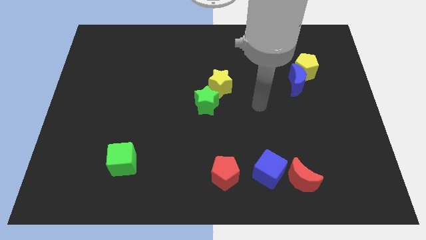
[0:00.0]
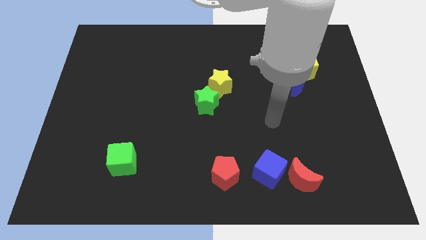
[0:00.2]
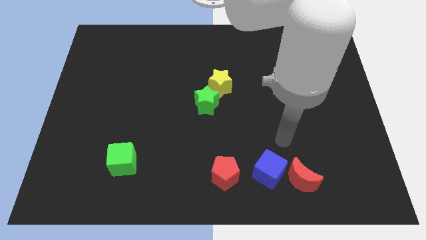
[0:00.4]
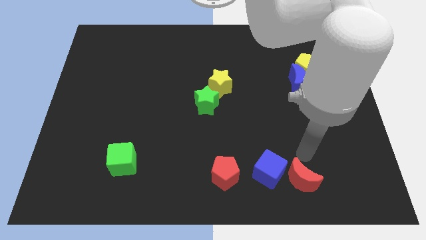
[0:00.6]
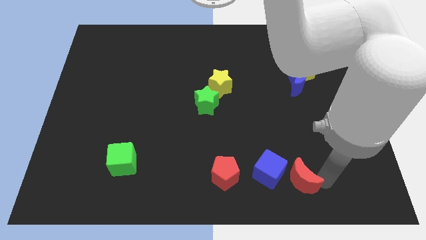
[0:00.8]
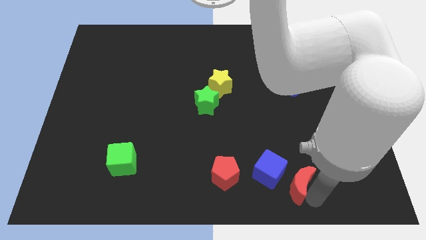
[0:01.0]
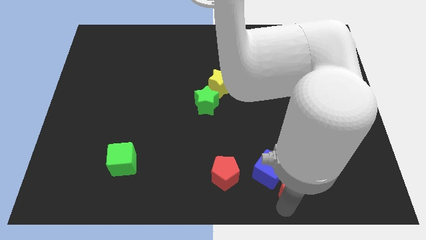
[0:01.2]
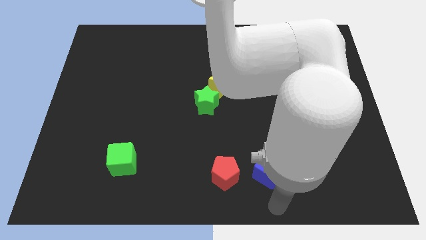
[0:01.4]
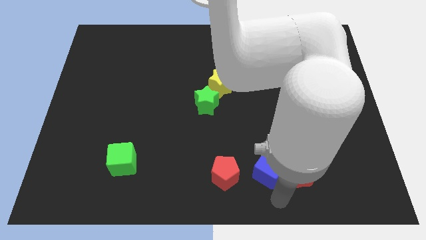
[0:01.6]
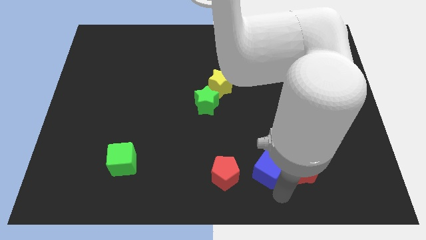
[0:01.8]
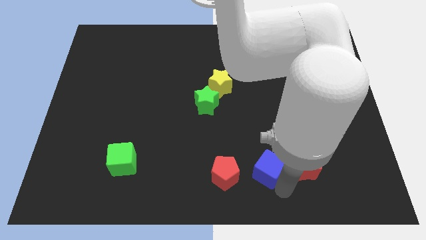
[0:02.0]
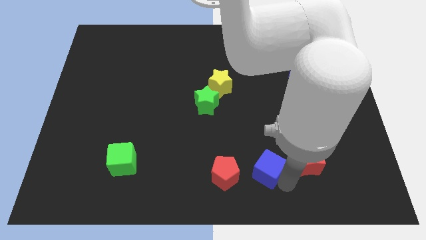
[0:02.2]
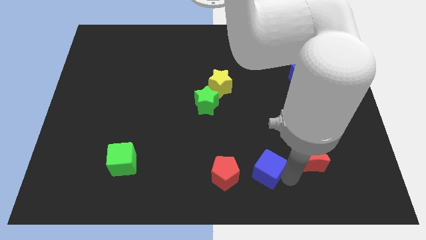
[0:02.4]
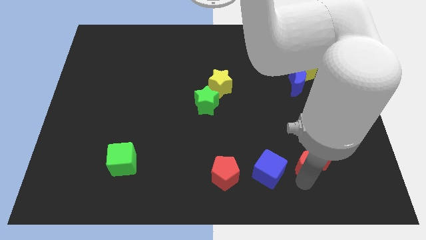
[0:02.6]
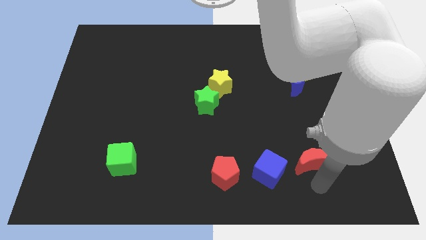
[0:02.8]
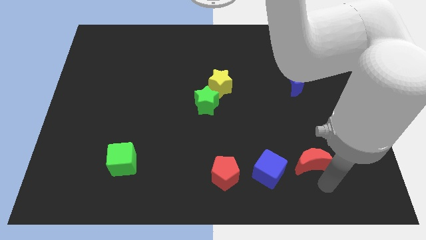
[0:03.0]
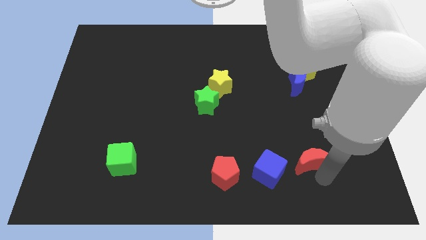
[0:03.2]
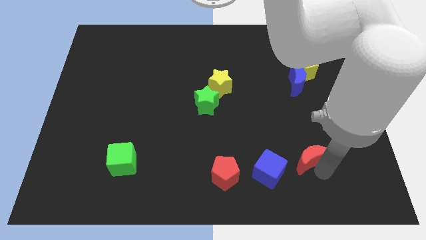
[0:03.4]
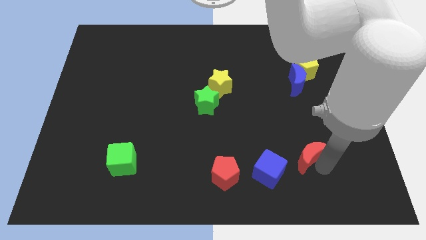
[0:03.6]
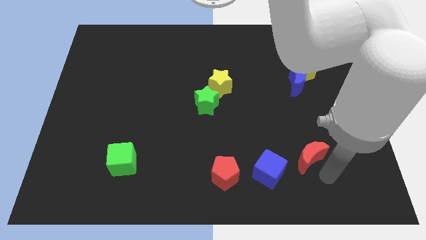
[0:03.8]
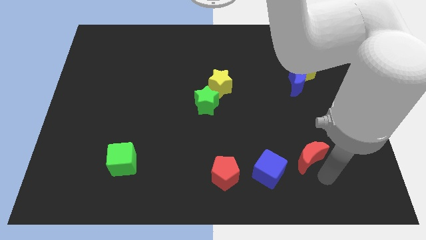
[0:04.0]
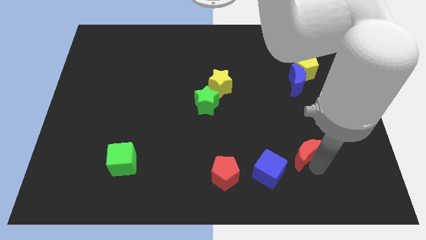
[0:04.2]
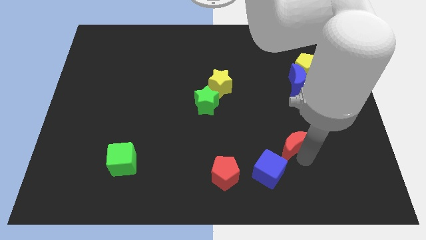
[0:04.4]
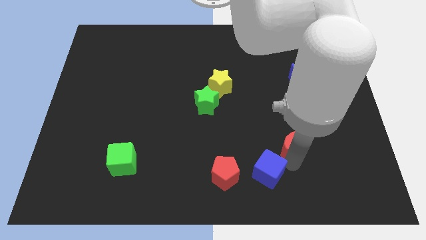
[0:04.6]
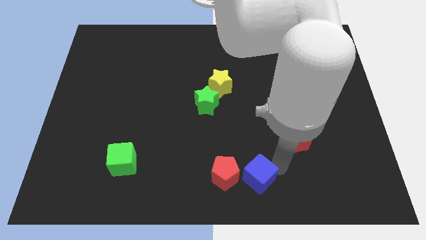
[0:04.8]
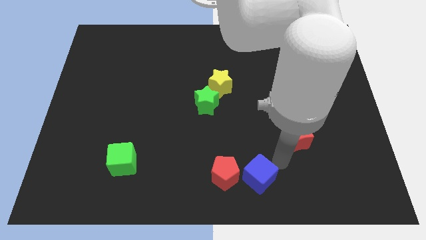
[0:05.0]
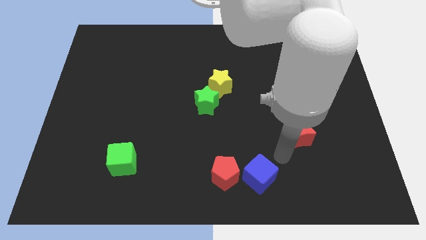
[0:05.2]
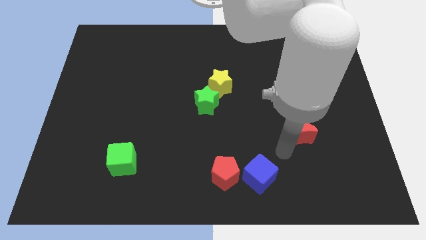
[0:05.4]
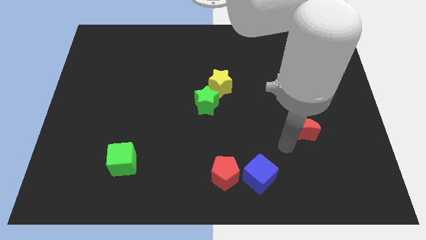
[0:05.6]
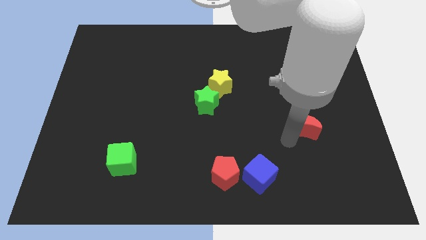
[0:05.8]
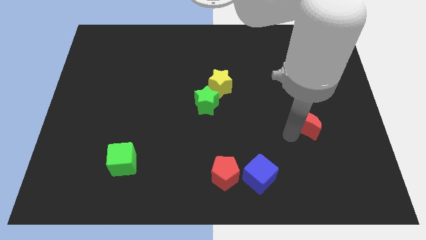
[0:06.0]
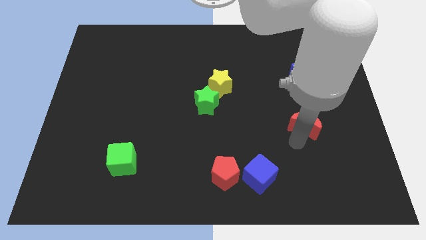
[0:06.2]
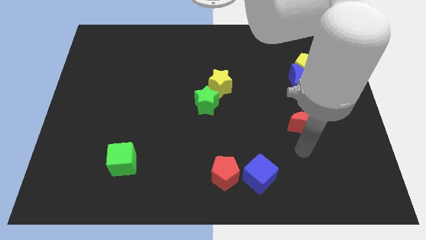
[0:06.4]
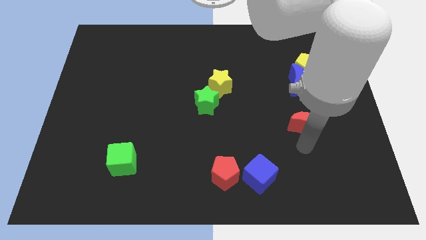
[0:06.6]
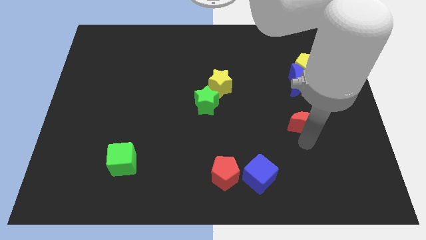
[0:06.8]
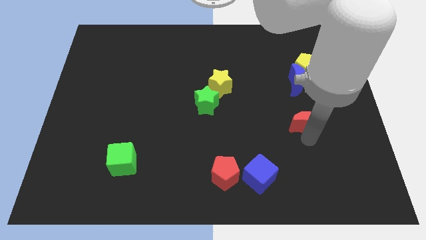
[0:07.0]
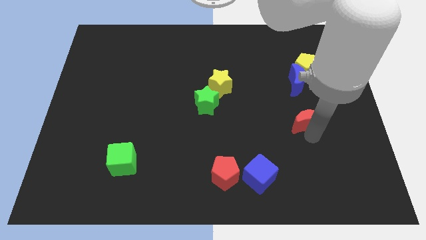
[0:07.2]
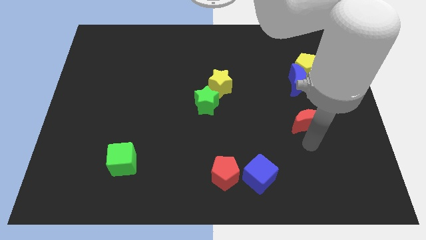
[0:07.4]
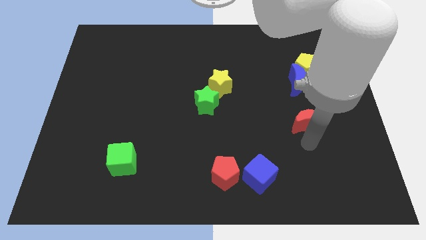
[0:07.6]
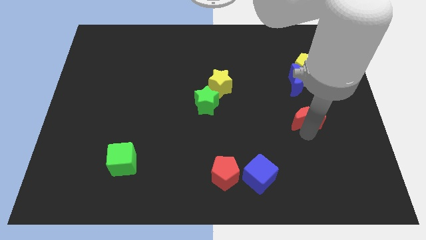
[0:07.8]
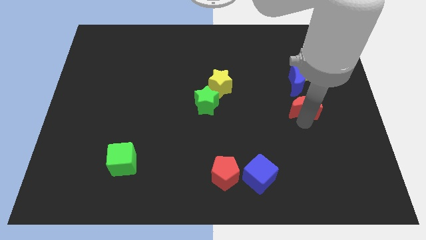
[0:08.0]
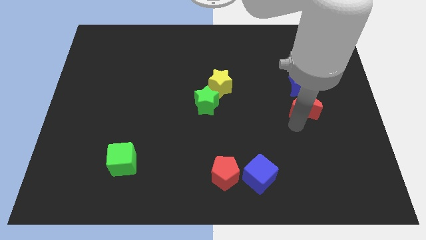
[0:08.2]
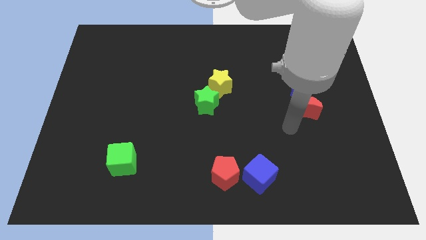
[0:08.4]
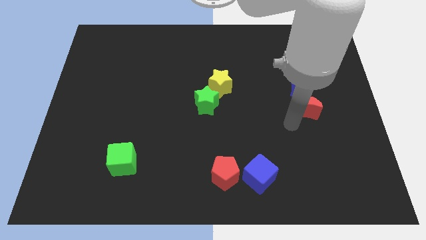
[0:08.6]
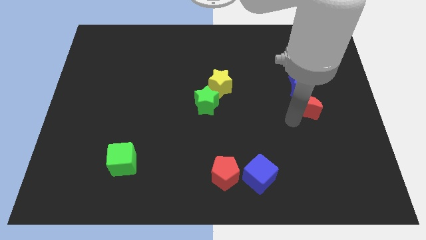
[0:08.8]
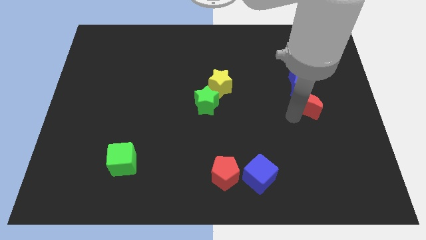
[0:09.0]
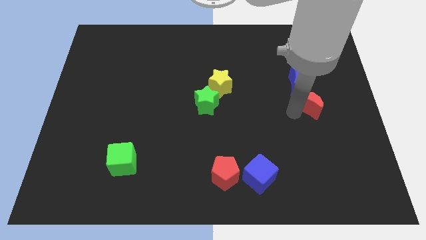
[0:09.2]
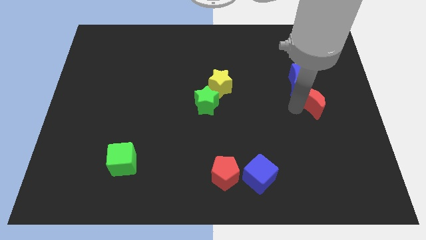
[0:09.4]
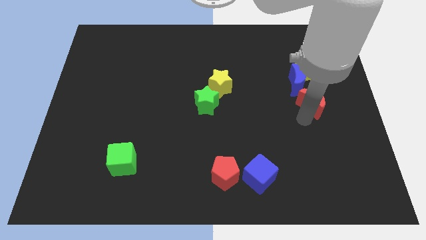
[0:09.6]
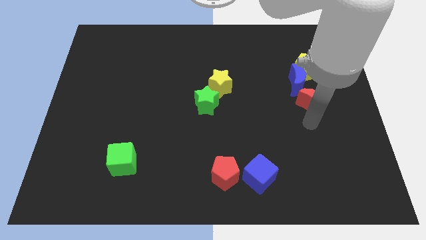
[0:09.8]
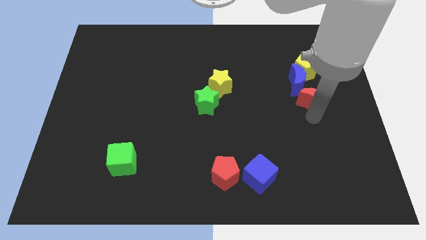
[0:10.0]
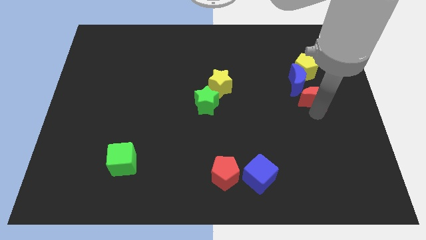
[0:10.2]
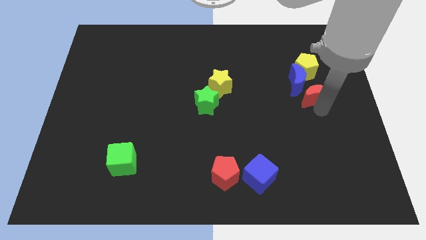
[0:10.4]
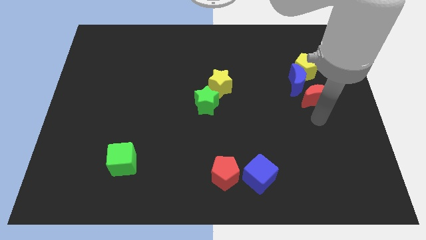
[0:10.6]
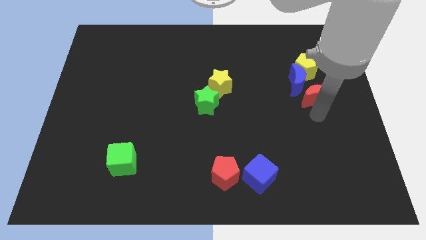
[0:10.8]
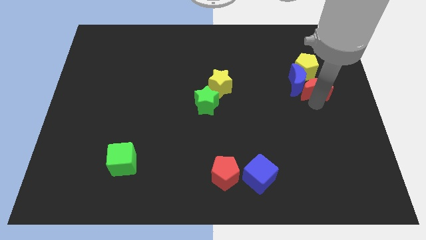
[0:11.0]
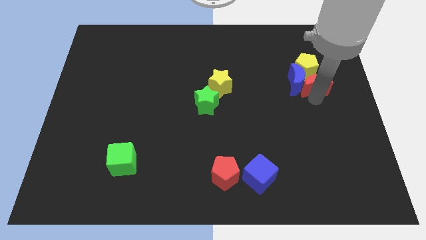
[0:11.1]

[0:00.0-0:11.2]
put the red moon close to the yellow pentagon

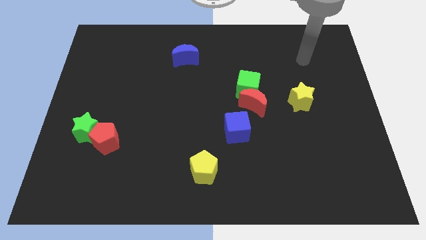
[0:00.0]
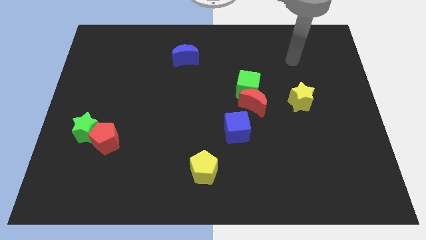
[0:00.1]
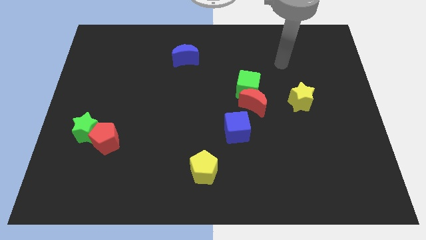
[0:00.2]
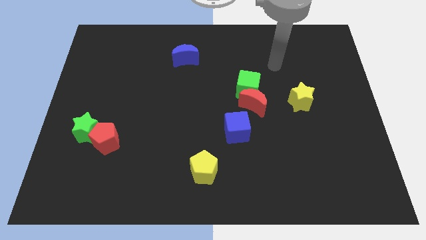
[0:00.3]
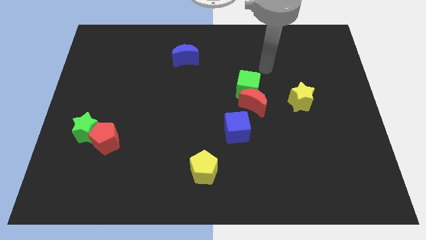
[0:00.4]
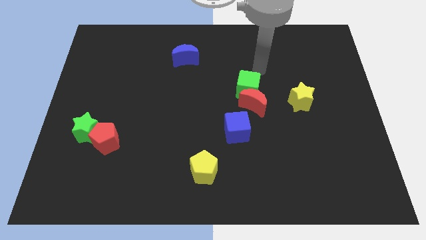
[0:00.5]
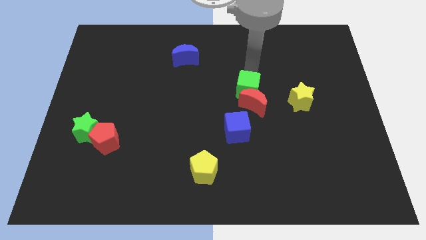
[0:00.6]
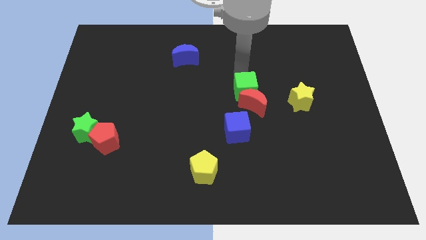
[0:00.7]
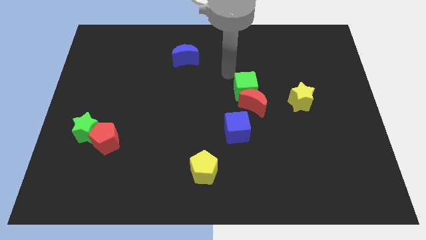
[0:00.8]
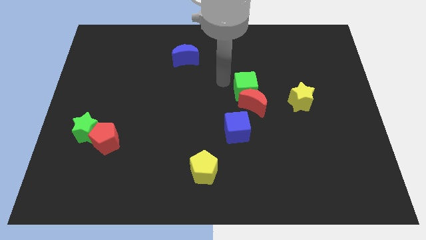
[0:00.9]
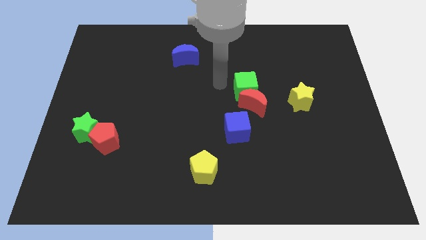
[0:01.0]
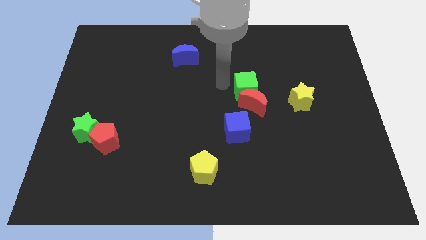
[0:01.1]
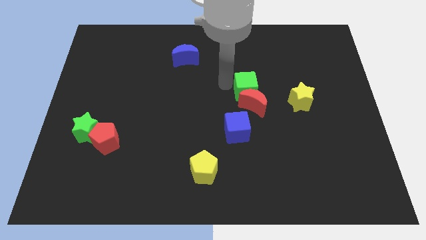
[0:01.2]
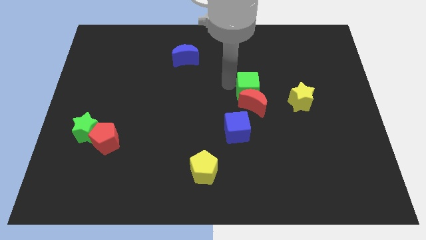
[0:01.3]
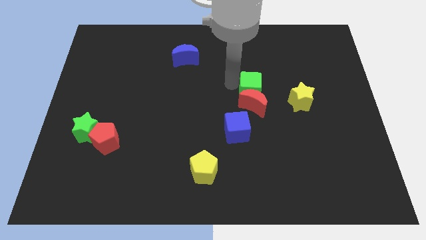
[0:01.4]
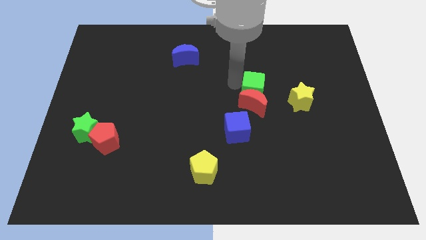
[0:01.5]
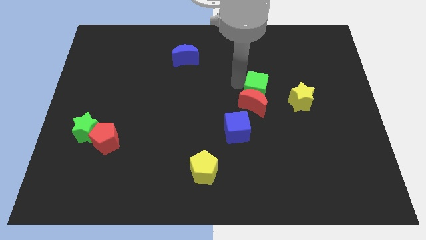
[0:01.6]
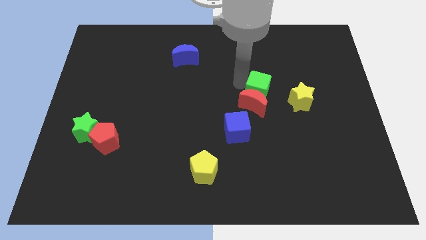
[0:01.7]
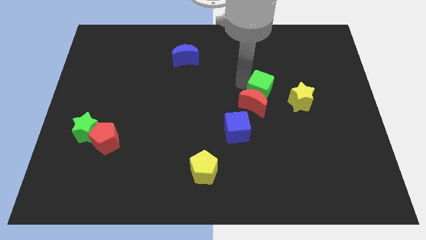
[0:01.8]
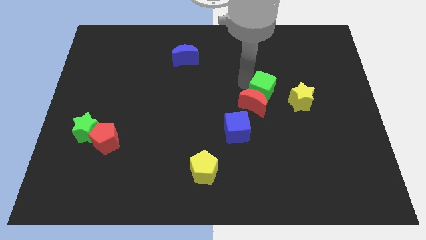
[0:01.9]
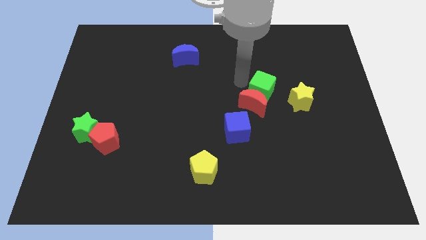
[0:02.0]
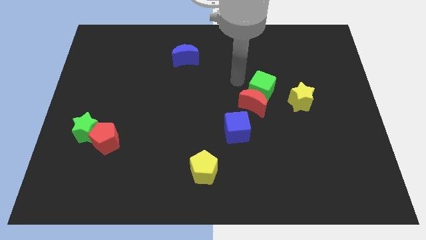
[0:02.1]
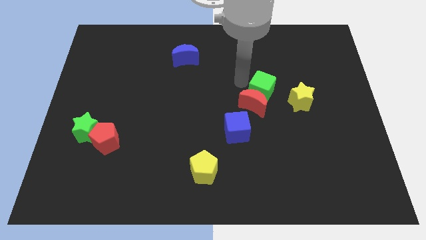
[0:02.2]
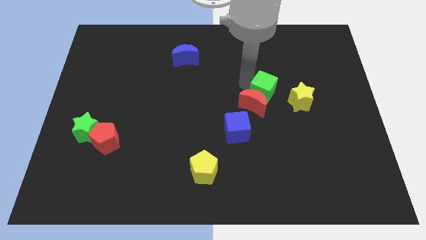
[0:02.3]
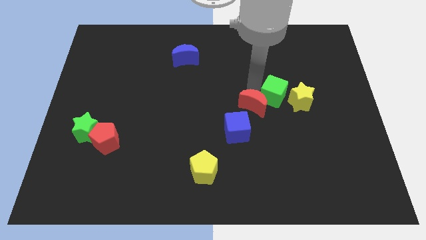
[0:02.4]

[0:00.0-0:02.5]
move the green cube towards the yellow star
